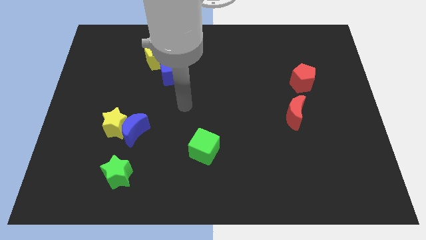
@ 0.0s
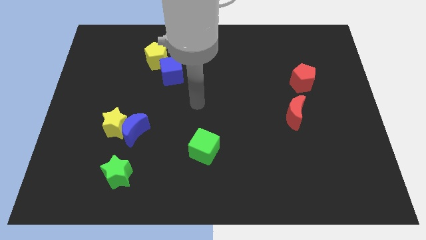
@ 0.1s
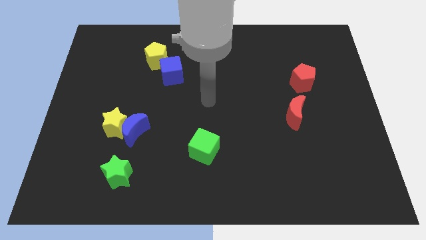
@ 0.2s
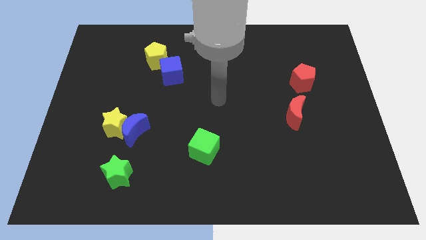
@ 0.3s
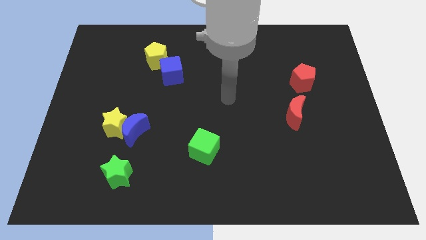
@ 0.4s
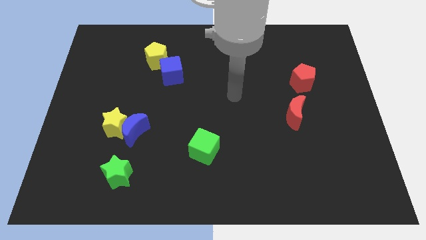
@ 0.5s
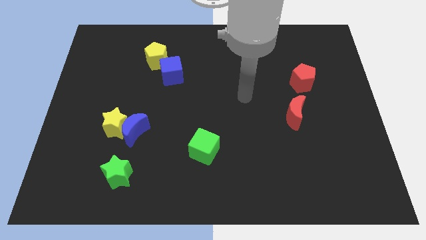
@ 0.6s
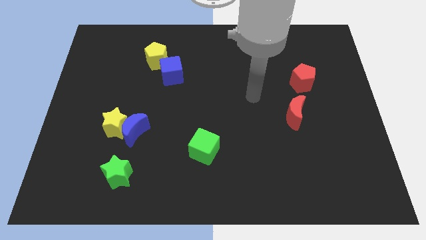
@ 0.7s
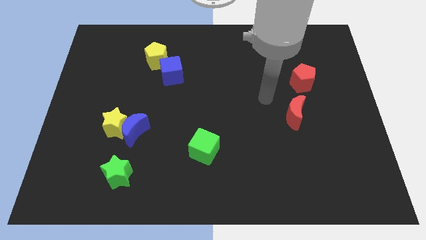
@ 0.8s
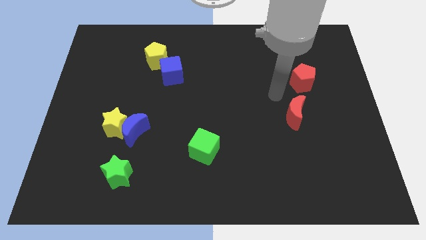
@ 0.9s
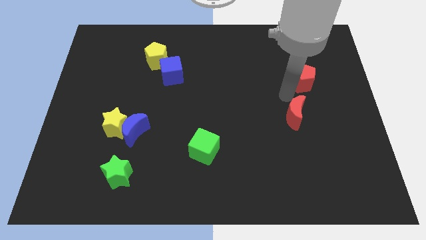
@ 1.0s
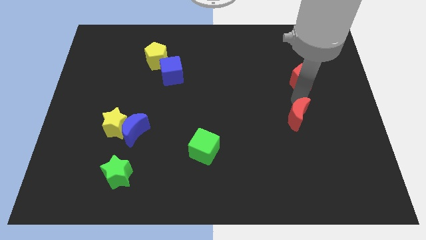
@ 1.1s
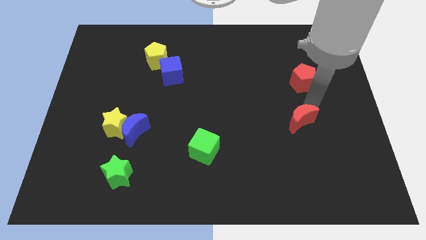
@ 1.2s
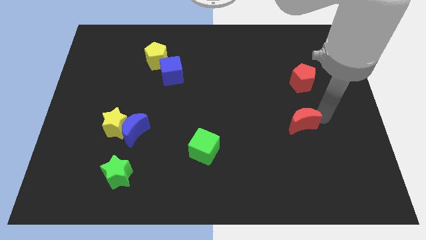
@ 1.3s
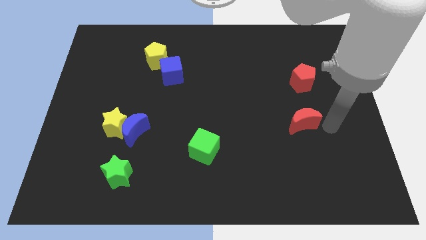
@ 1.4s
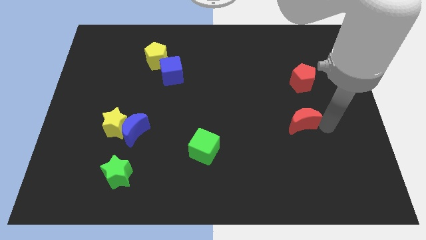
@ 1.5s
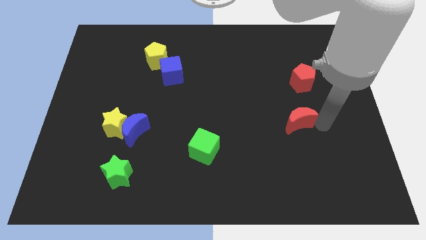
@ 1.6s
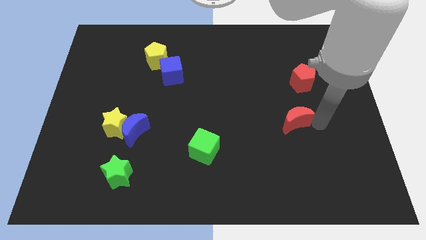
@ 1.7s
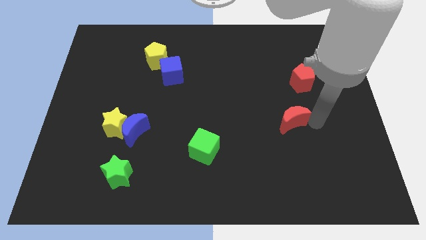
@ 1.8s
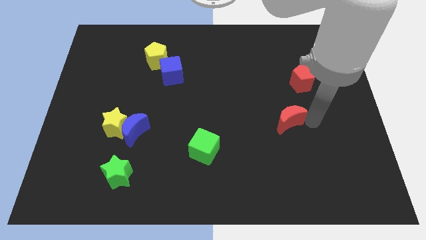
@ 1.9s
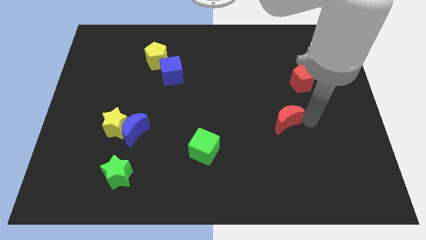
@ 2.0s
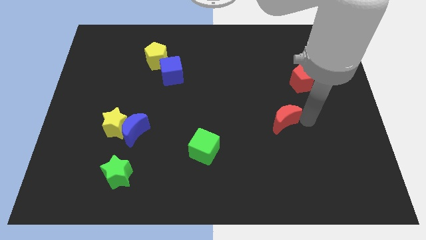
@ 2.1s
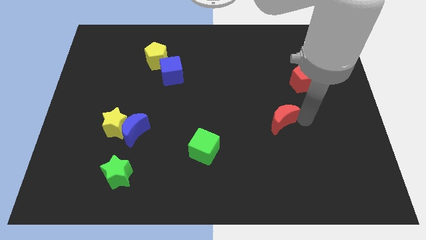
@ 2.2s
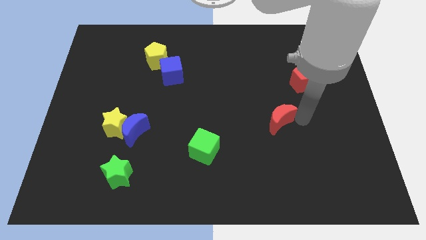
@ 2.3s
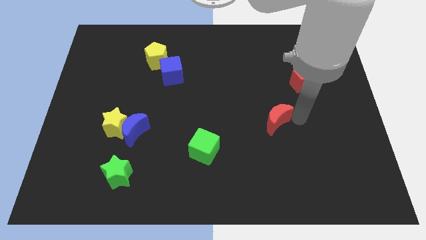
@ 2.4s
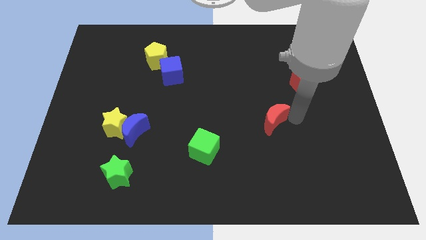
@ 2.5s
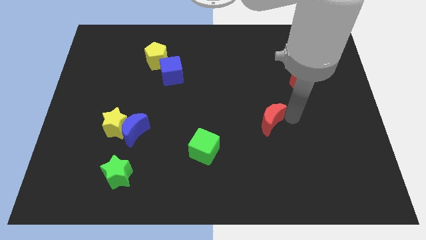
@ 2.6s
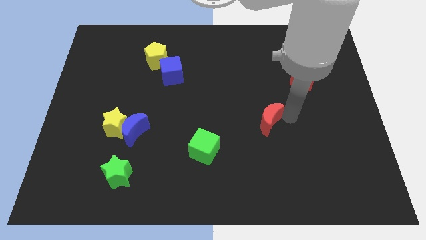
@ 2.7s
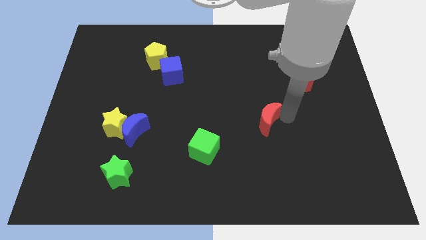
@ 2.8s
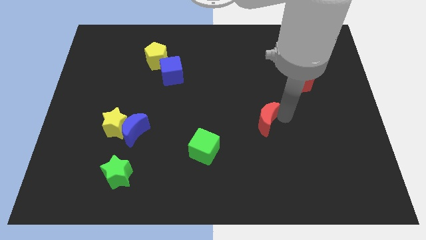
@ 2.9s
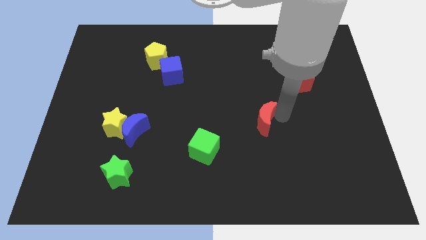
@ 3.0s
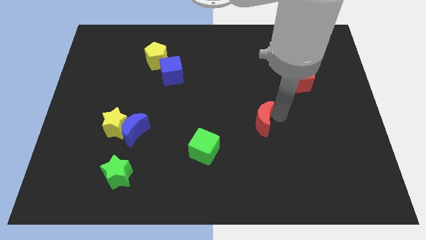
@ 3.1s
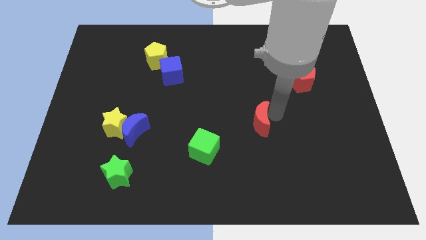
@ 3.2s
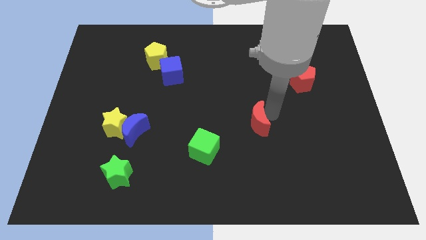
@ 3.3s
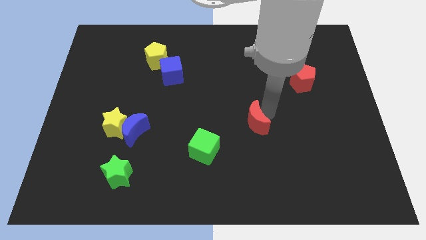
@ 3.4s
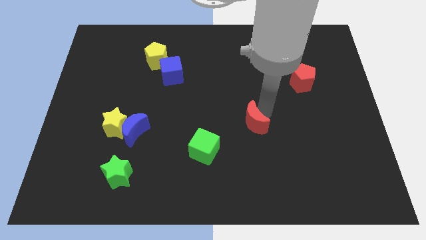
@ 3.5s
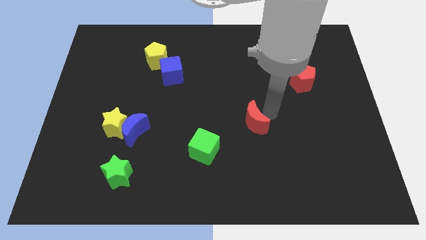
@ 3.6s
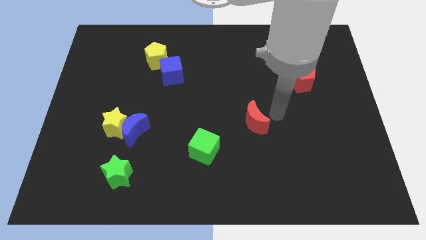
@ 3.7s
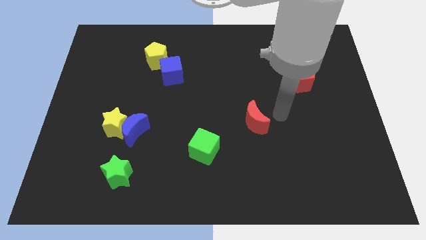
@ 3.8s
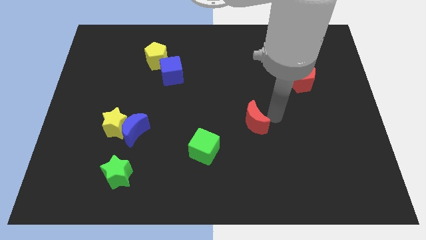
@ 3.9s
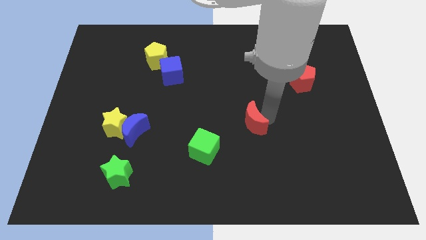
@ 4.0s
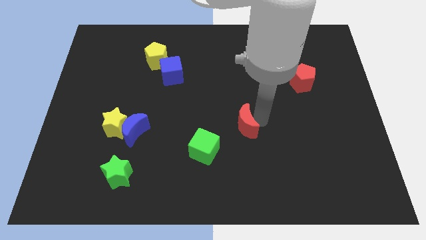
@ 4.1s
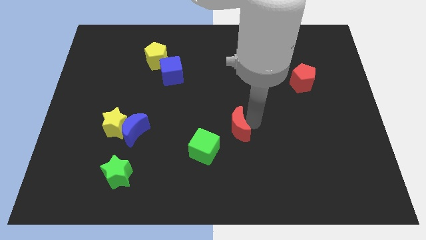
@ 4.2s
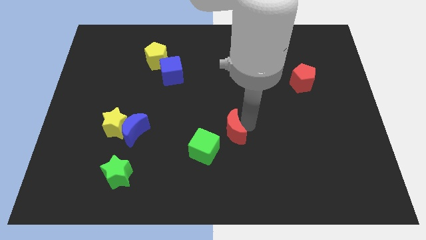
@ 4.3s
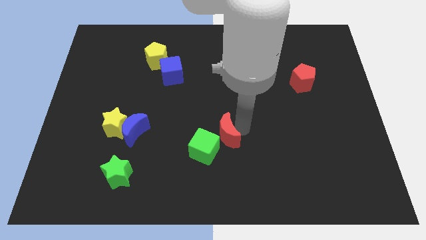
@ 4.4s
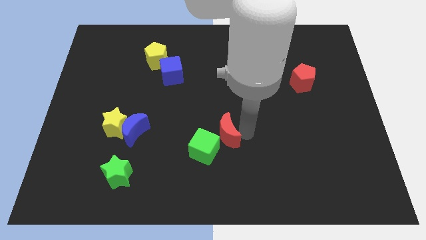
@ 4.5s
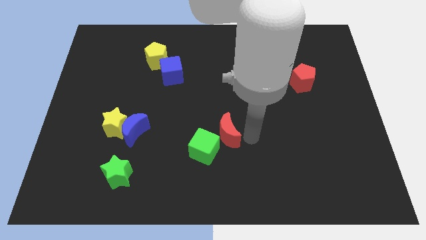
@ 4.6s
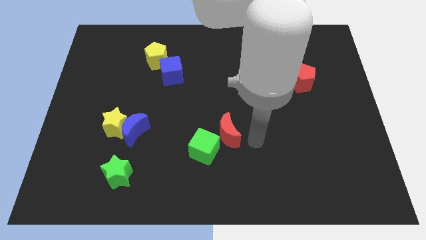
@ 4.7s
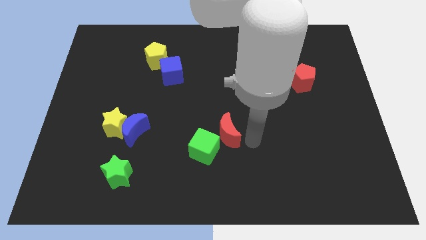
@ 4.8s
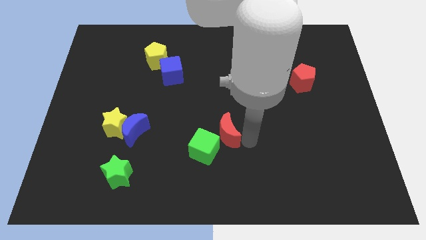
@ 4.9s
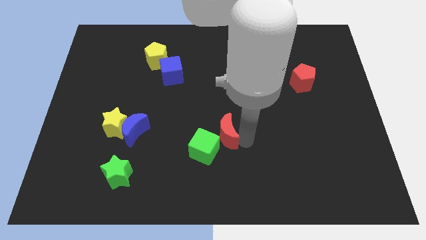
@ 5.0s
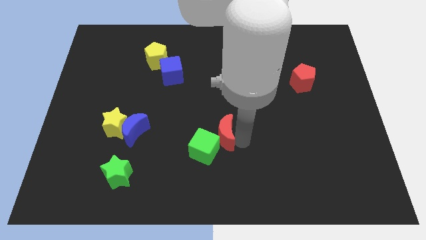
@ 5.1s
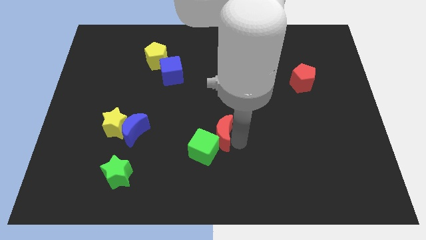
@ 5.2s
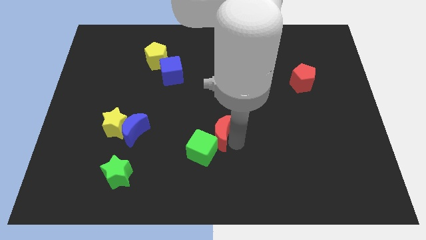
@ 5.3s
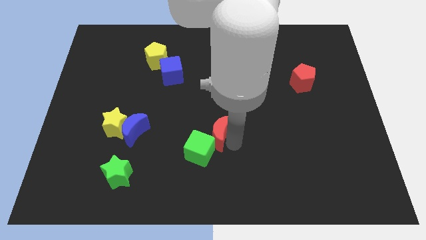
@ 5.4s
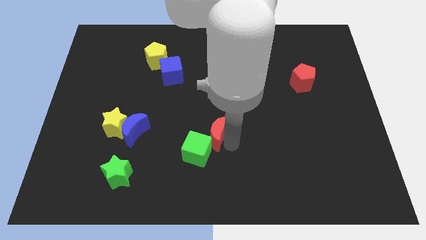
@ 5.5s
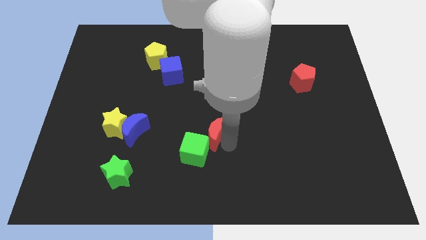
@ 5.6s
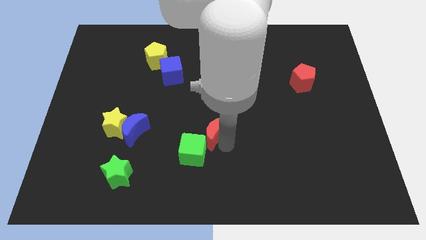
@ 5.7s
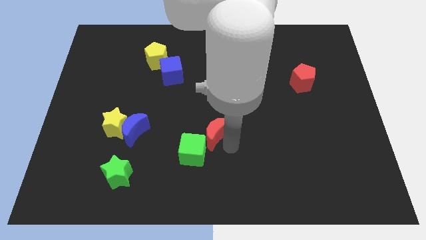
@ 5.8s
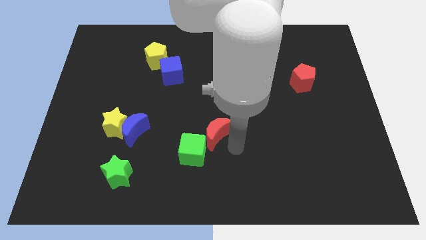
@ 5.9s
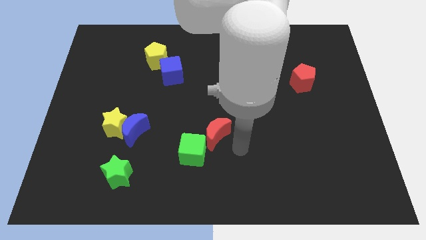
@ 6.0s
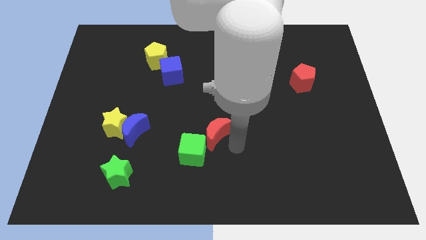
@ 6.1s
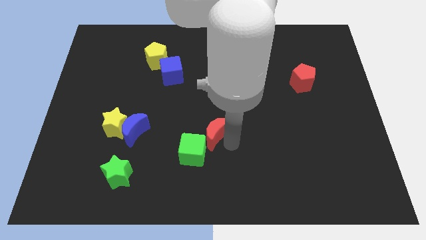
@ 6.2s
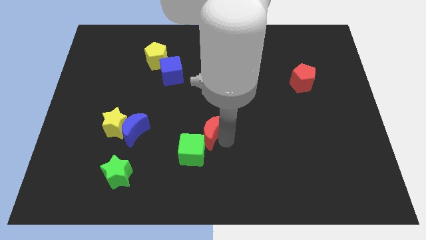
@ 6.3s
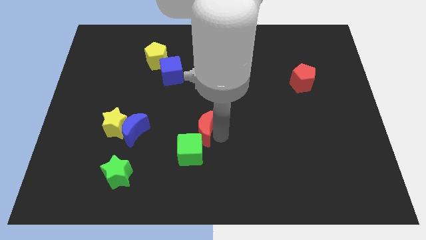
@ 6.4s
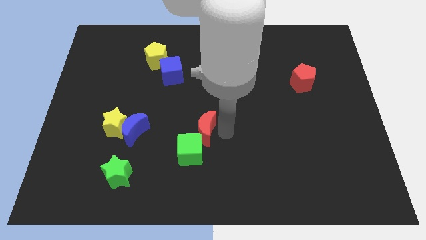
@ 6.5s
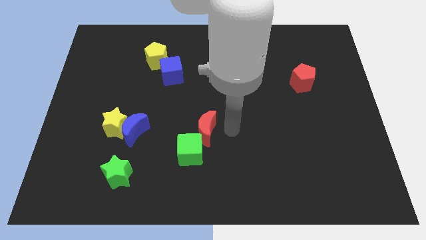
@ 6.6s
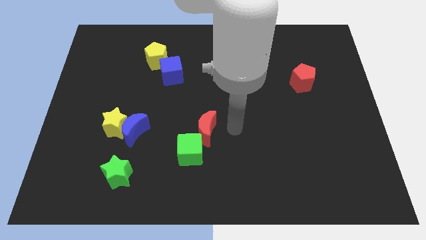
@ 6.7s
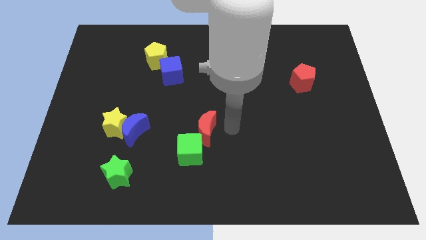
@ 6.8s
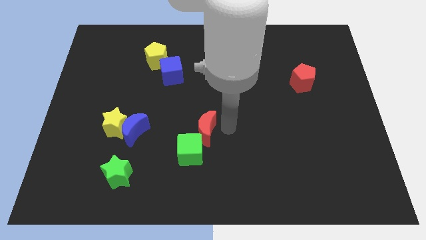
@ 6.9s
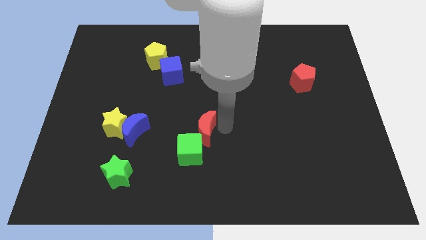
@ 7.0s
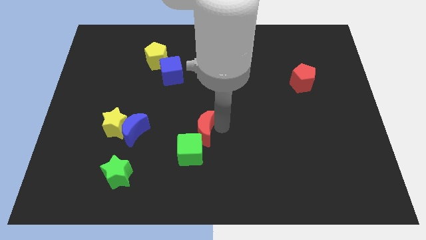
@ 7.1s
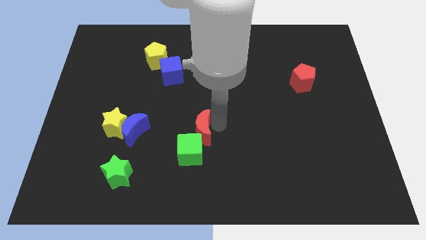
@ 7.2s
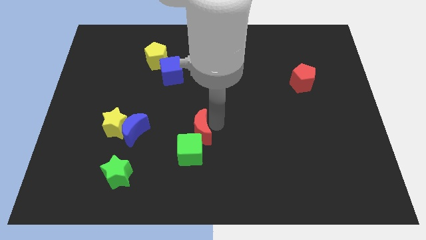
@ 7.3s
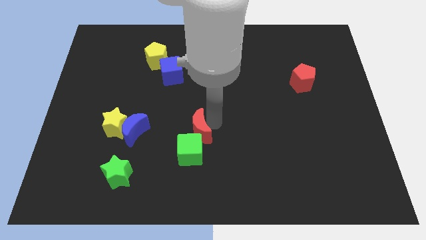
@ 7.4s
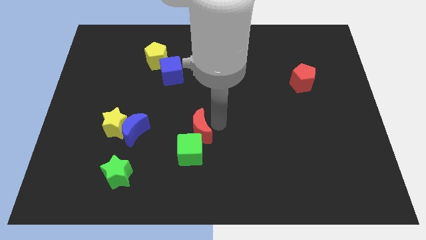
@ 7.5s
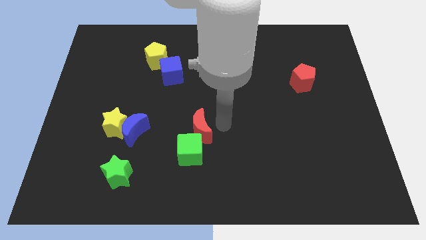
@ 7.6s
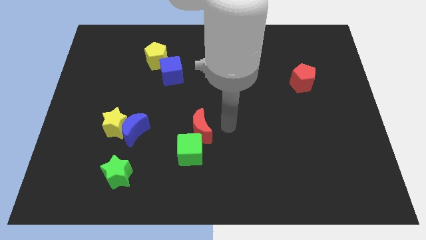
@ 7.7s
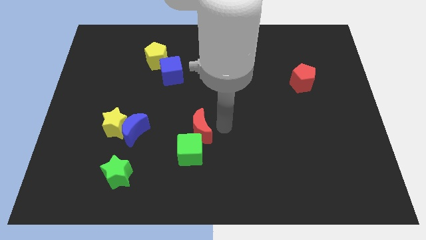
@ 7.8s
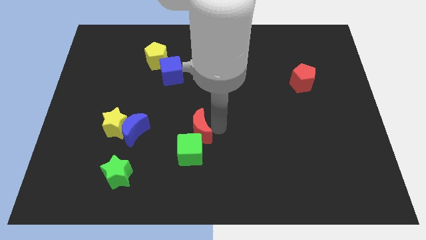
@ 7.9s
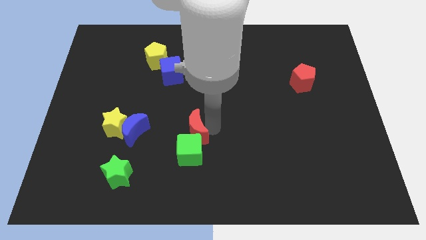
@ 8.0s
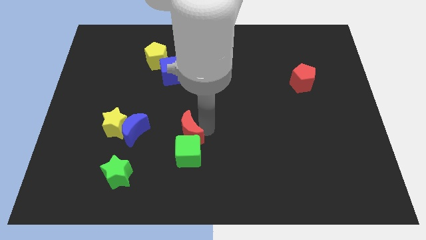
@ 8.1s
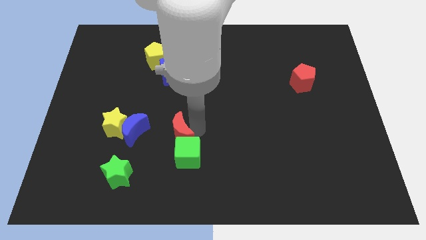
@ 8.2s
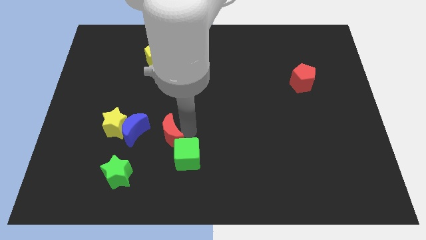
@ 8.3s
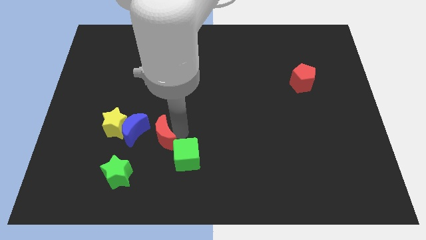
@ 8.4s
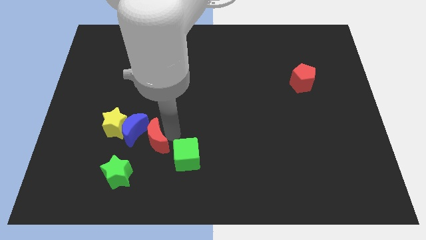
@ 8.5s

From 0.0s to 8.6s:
slide the red moon to the bottom right of the yellow star
